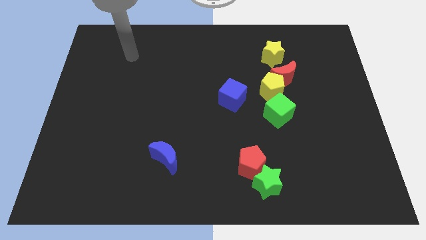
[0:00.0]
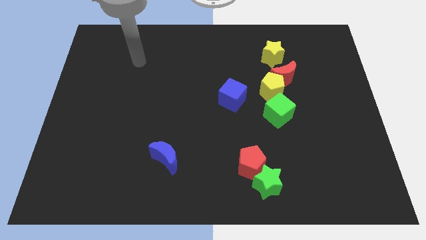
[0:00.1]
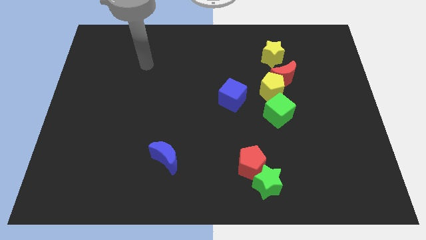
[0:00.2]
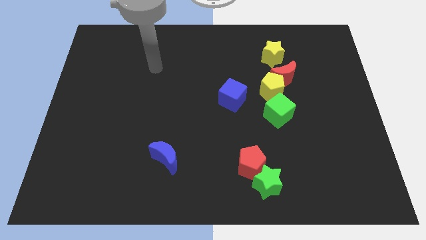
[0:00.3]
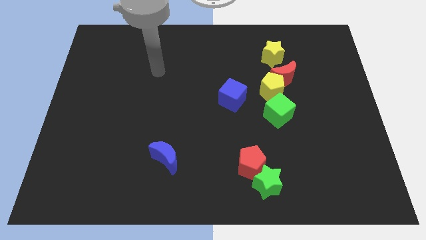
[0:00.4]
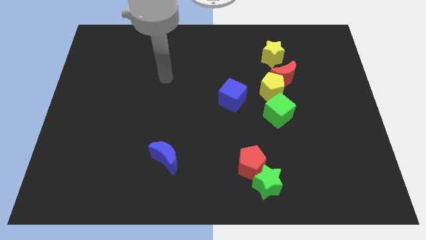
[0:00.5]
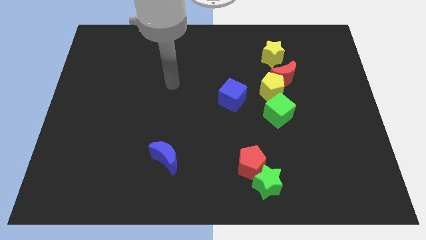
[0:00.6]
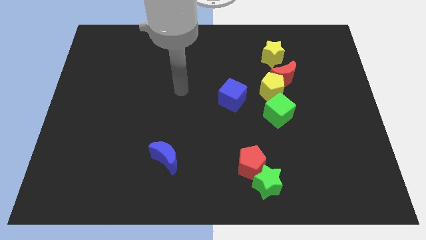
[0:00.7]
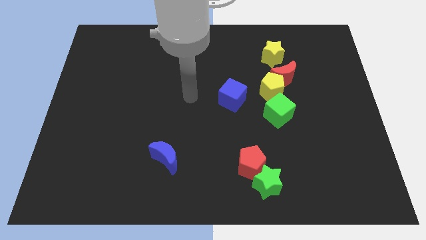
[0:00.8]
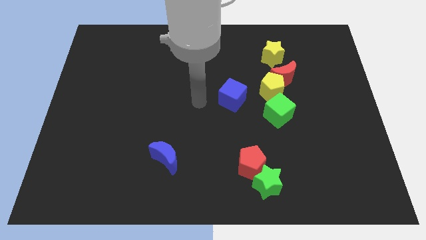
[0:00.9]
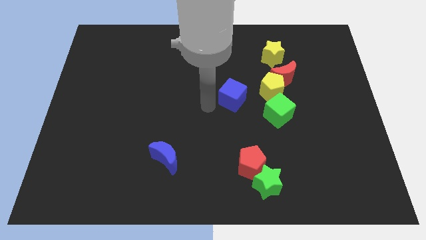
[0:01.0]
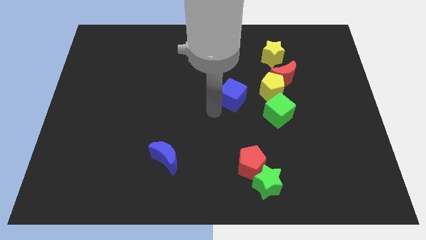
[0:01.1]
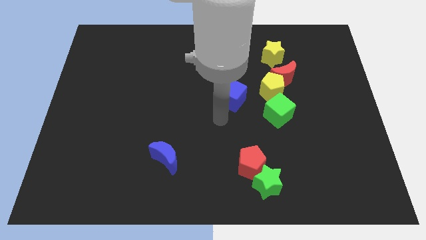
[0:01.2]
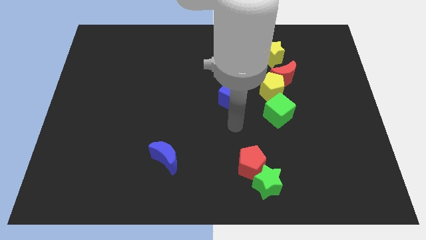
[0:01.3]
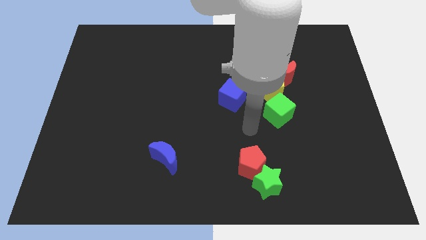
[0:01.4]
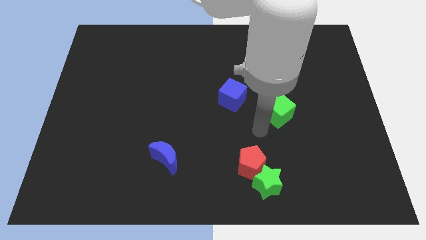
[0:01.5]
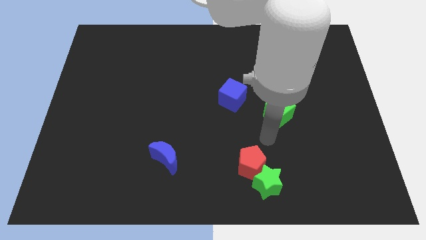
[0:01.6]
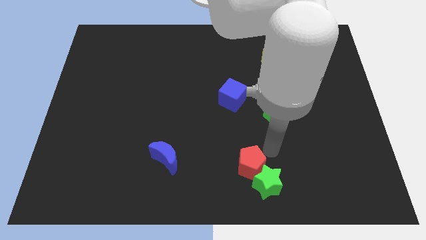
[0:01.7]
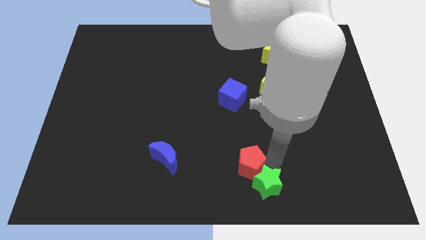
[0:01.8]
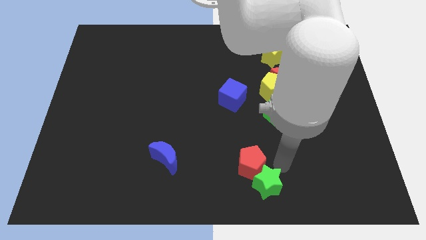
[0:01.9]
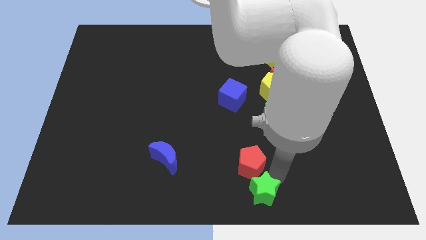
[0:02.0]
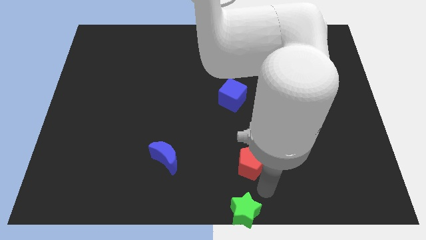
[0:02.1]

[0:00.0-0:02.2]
separate the red pentagon from the green star

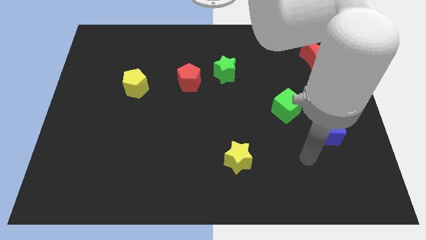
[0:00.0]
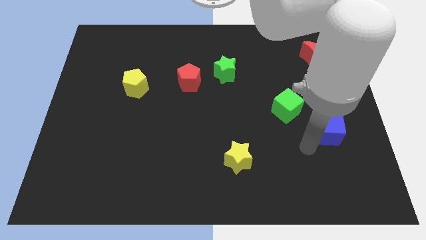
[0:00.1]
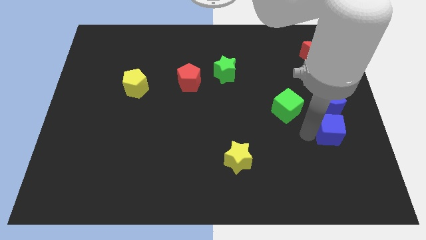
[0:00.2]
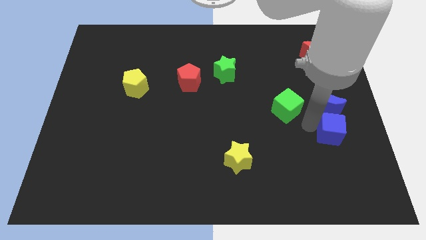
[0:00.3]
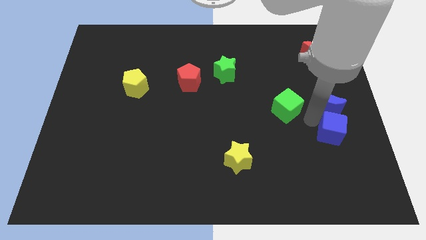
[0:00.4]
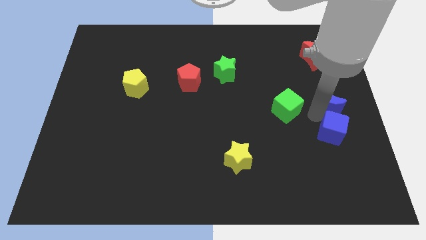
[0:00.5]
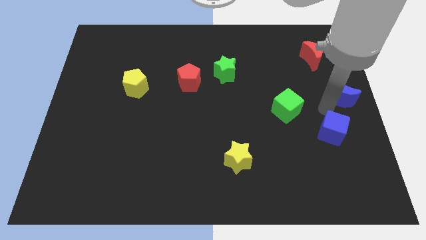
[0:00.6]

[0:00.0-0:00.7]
move the blue cube away from the blue moon

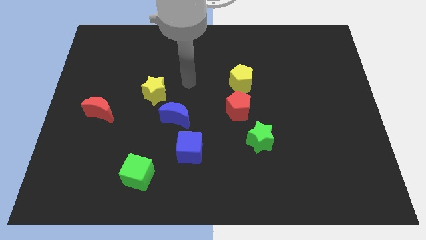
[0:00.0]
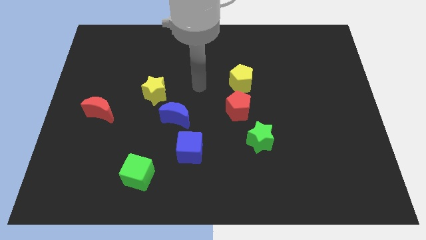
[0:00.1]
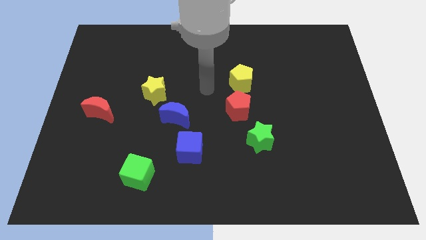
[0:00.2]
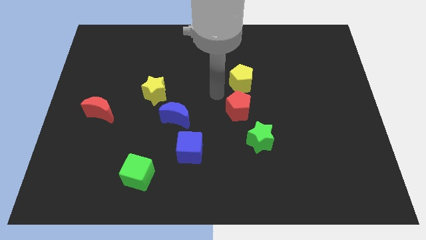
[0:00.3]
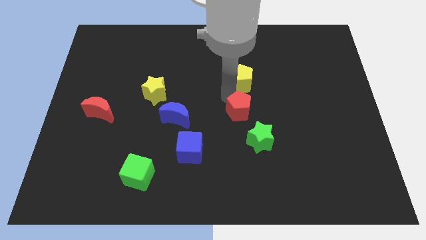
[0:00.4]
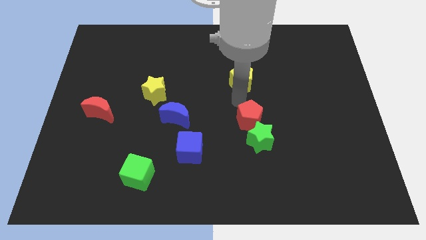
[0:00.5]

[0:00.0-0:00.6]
move the yellow pentagon away from the red pentagon

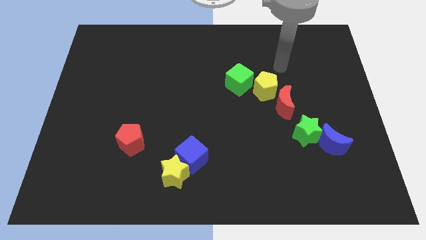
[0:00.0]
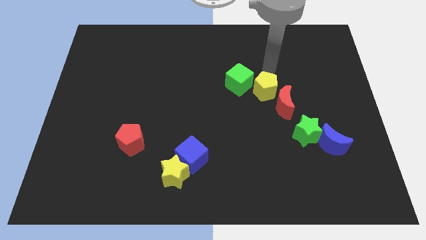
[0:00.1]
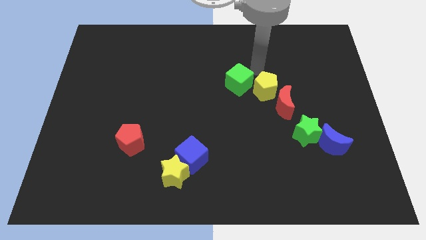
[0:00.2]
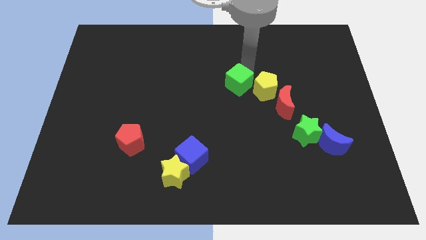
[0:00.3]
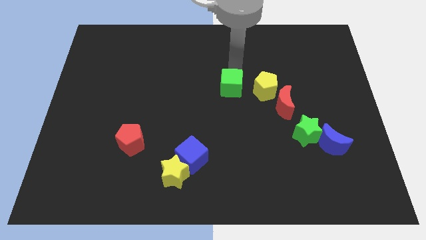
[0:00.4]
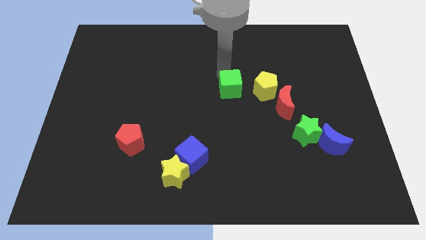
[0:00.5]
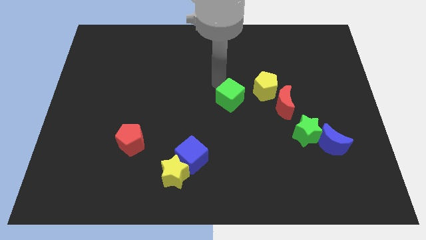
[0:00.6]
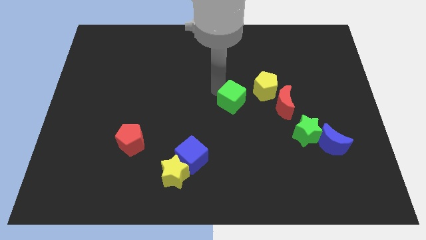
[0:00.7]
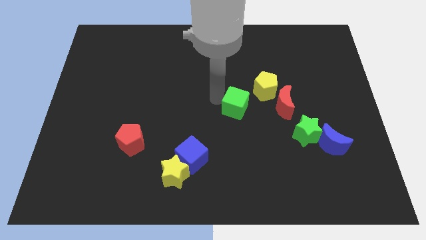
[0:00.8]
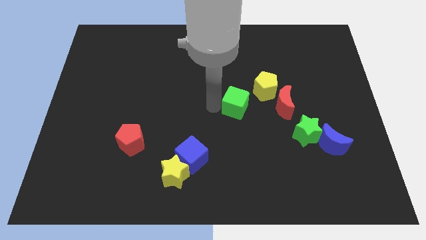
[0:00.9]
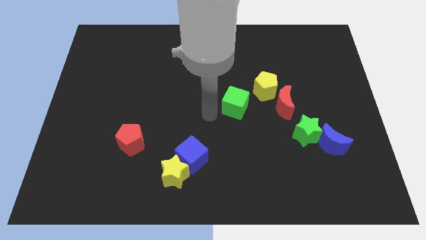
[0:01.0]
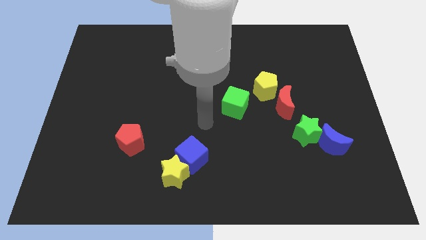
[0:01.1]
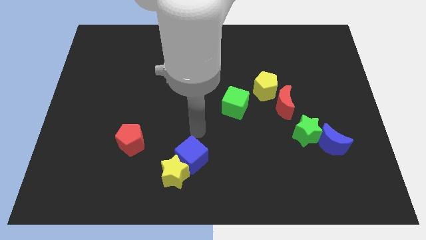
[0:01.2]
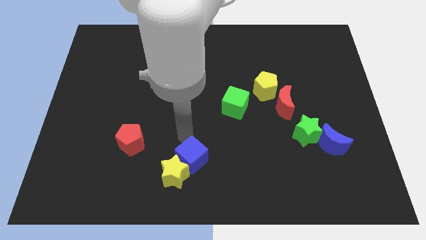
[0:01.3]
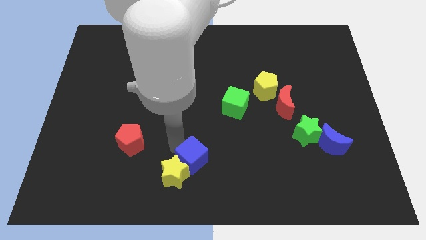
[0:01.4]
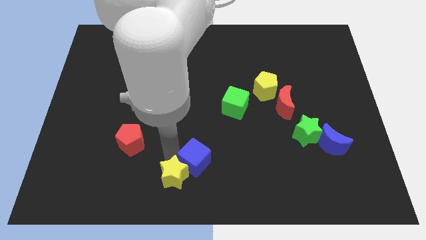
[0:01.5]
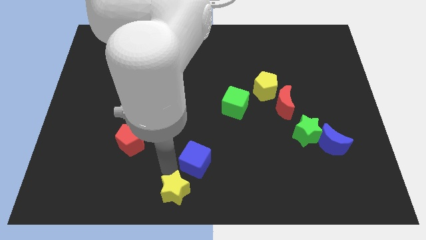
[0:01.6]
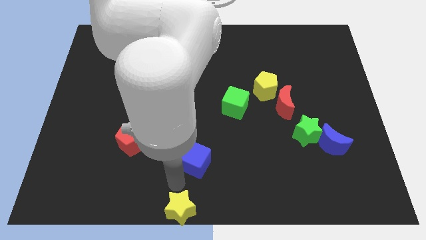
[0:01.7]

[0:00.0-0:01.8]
move the blue cube away from the yellow star

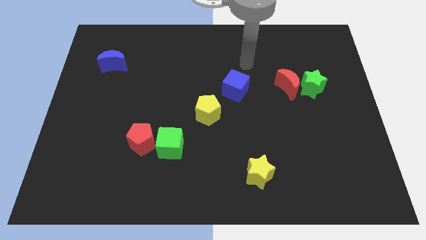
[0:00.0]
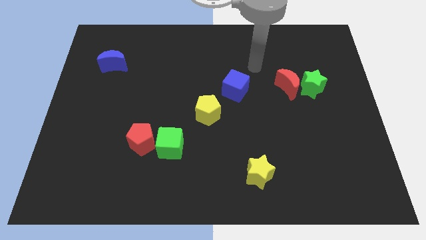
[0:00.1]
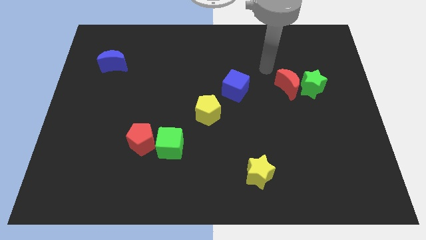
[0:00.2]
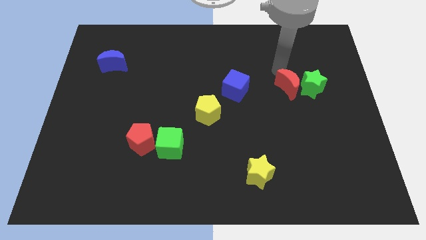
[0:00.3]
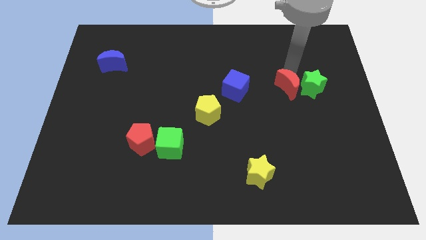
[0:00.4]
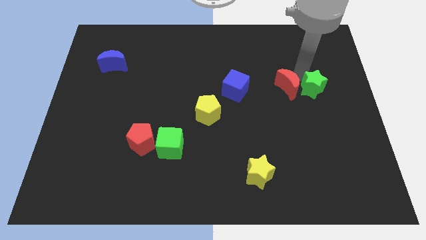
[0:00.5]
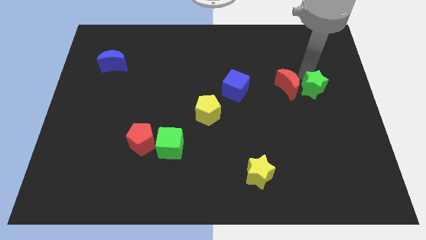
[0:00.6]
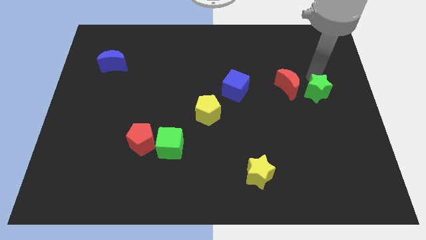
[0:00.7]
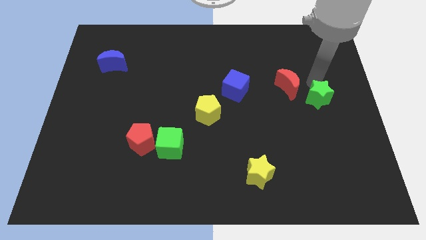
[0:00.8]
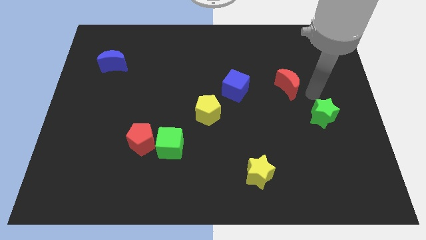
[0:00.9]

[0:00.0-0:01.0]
pull the red moon apart from the green star

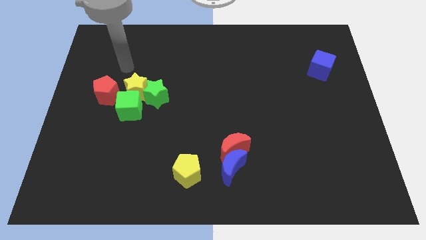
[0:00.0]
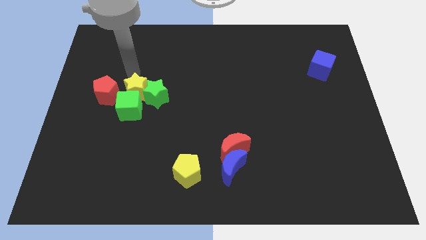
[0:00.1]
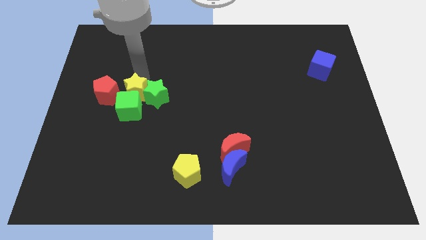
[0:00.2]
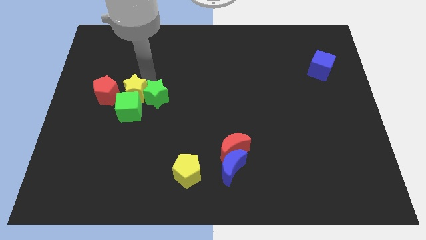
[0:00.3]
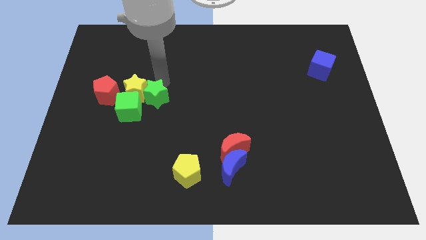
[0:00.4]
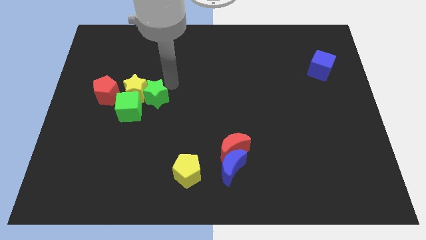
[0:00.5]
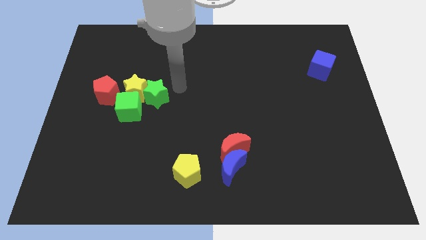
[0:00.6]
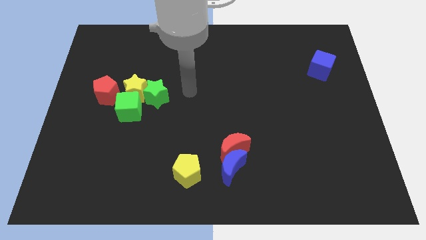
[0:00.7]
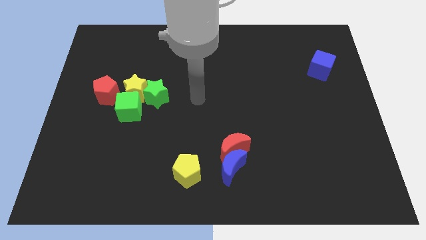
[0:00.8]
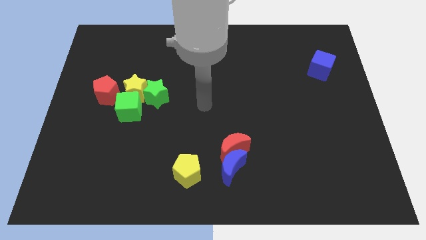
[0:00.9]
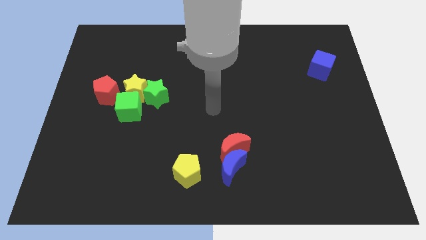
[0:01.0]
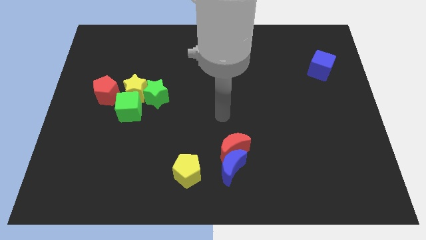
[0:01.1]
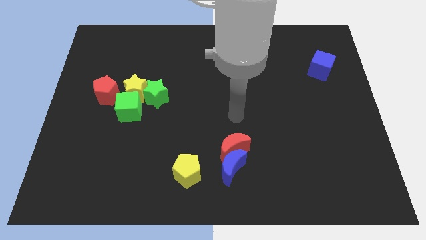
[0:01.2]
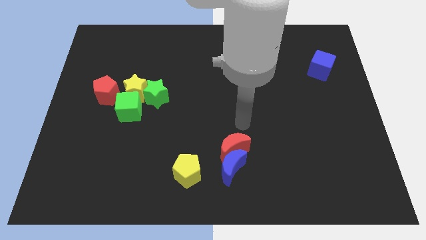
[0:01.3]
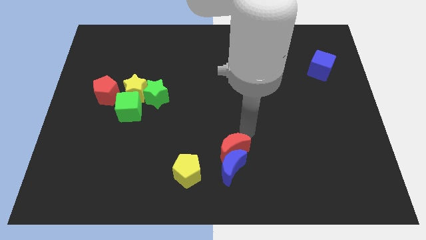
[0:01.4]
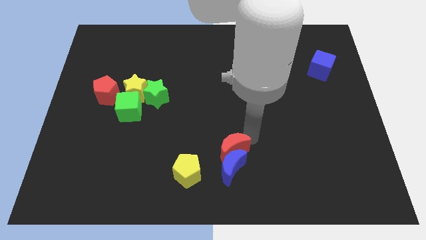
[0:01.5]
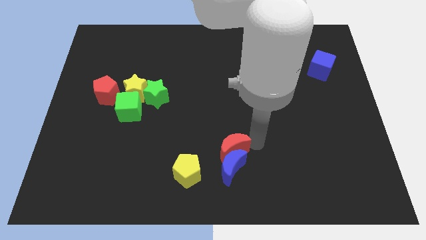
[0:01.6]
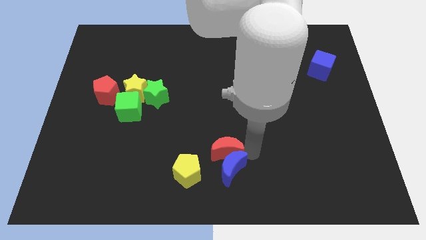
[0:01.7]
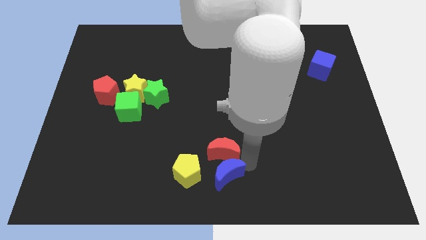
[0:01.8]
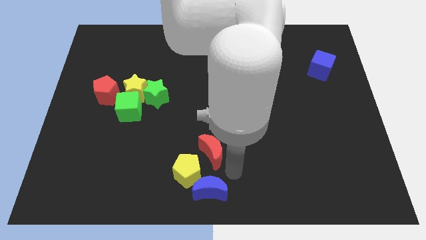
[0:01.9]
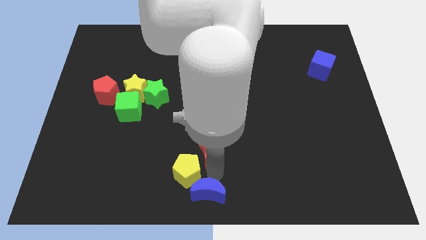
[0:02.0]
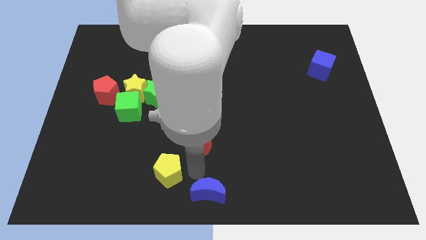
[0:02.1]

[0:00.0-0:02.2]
separate the red moon from the blue moon

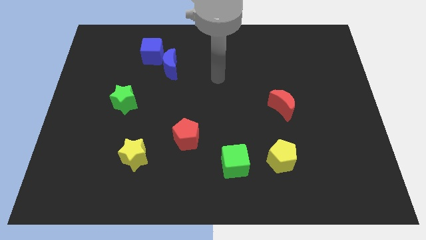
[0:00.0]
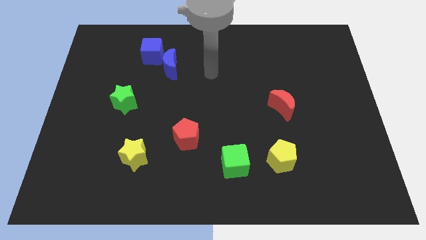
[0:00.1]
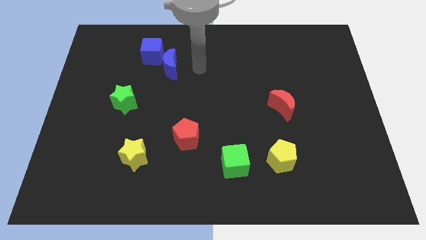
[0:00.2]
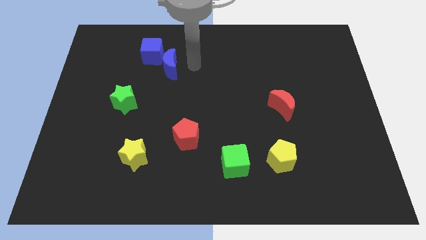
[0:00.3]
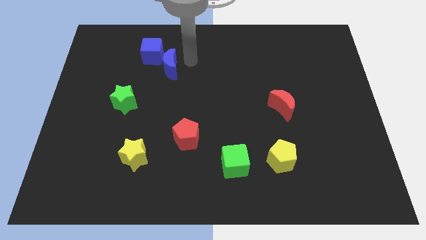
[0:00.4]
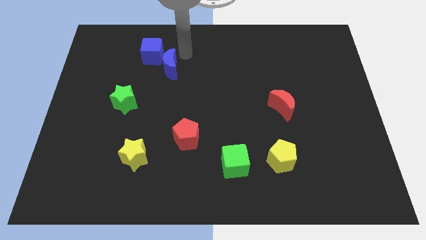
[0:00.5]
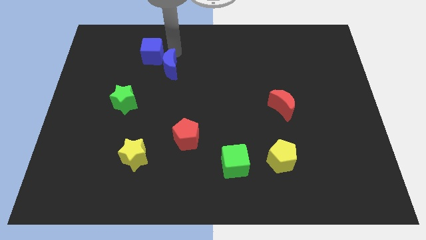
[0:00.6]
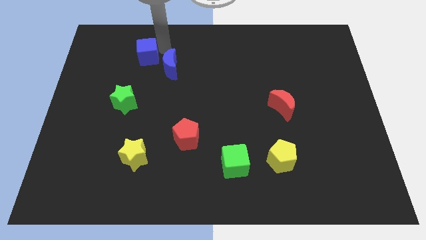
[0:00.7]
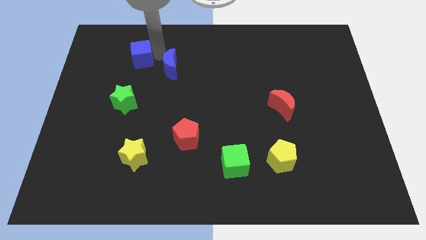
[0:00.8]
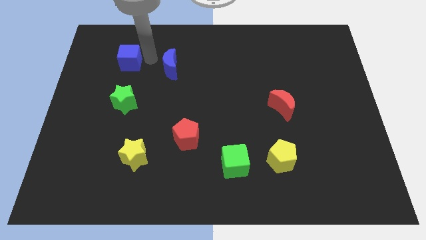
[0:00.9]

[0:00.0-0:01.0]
separate the blue moon from the blue cube
